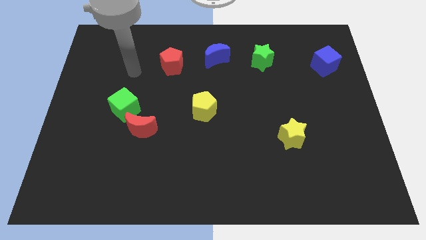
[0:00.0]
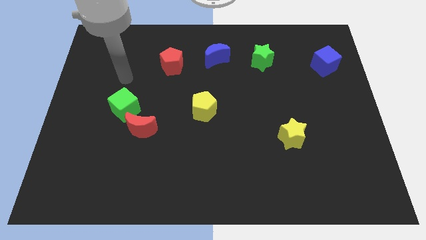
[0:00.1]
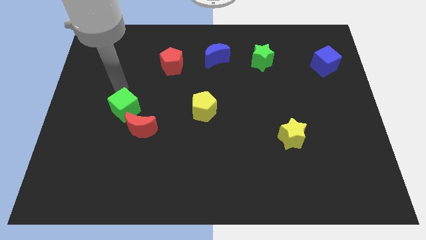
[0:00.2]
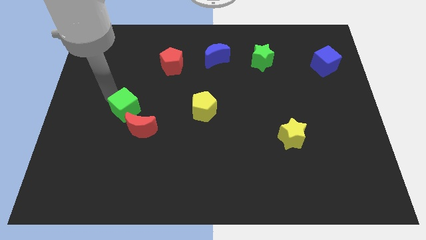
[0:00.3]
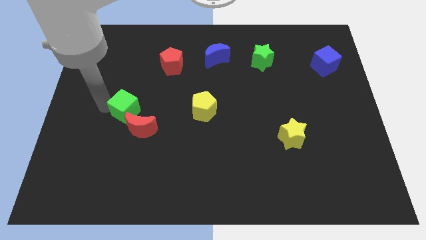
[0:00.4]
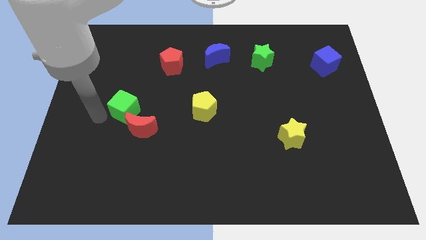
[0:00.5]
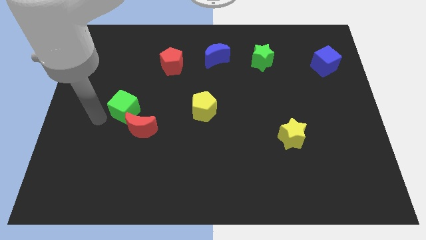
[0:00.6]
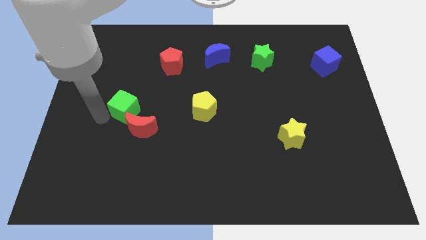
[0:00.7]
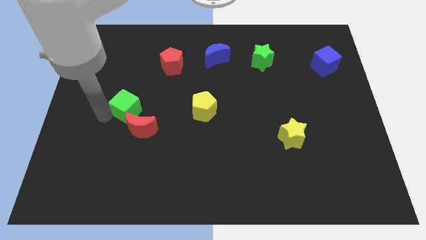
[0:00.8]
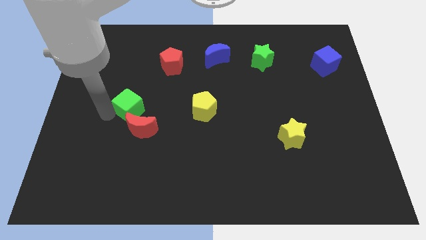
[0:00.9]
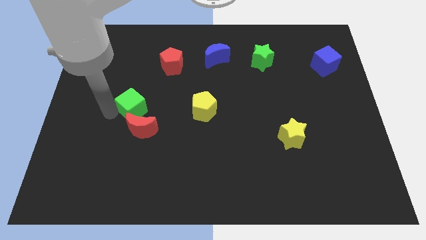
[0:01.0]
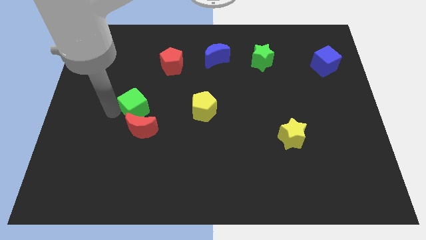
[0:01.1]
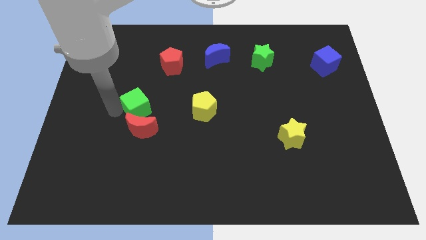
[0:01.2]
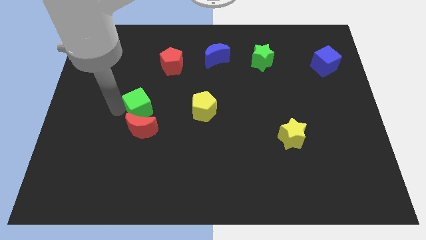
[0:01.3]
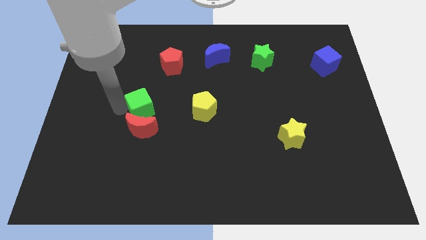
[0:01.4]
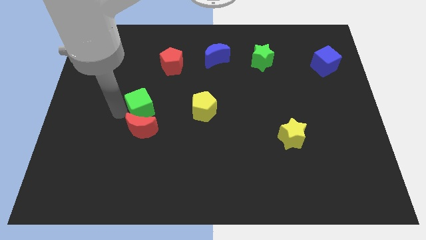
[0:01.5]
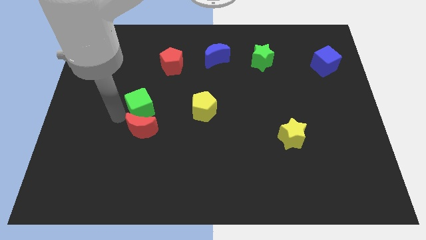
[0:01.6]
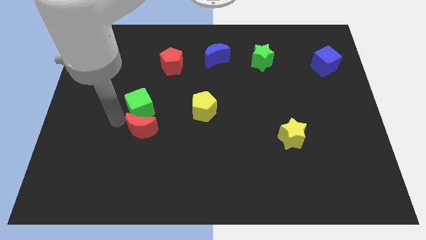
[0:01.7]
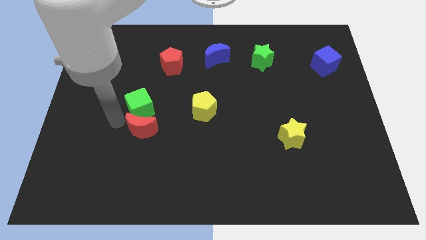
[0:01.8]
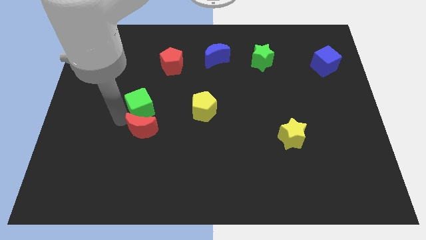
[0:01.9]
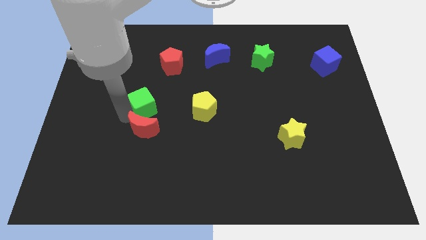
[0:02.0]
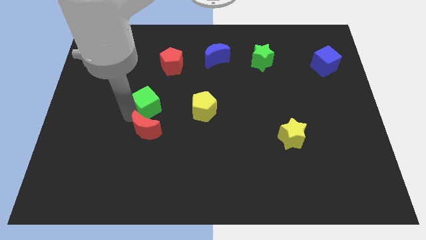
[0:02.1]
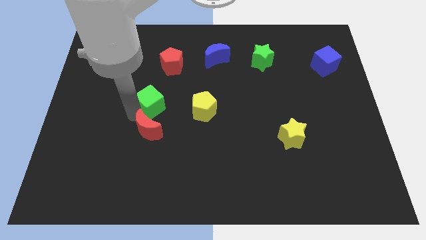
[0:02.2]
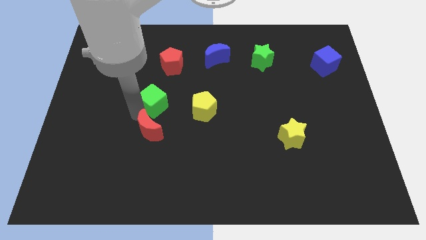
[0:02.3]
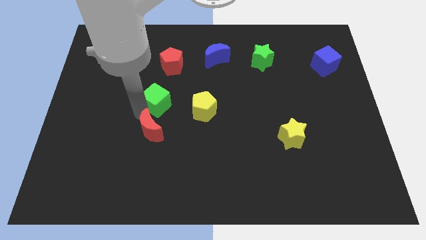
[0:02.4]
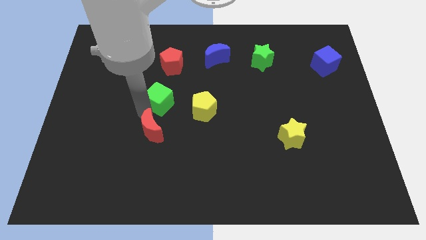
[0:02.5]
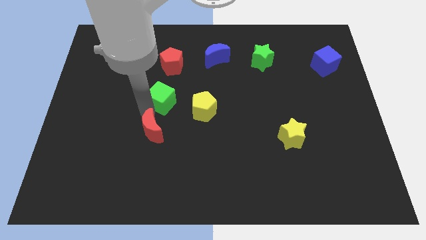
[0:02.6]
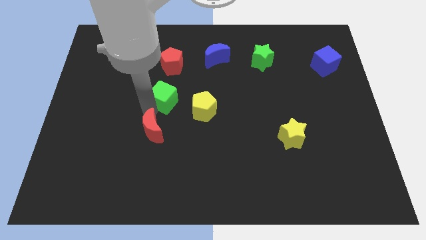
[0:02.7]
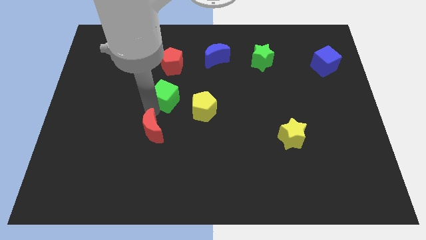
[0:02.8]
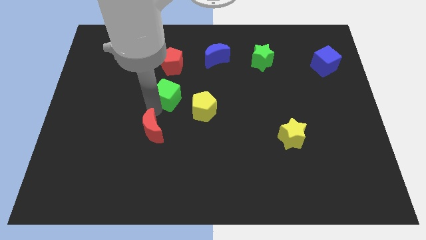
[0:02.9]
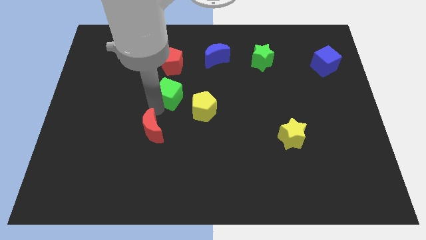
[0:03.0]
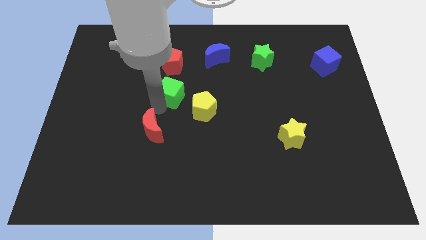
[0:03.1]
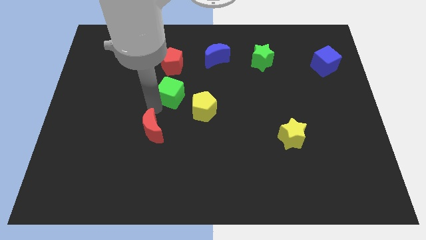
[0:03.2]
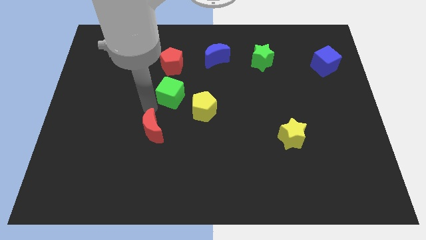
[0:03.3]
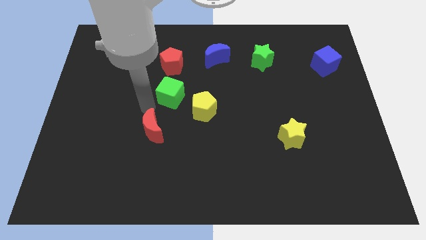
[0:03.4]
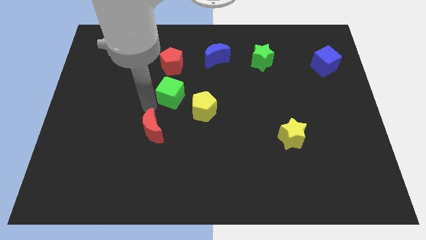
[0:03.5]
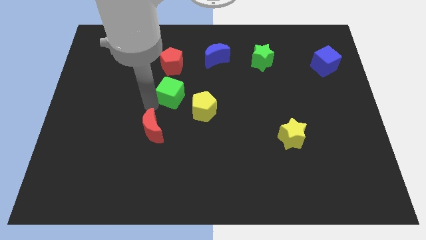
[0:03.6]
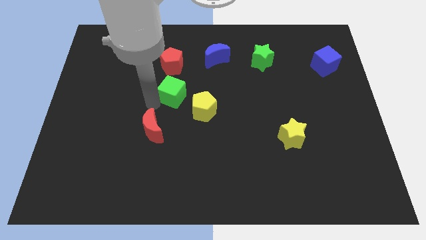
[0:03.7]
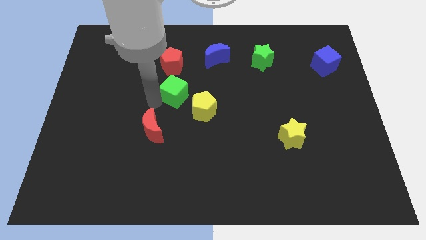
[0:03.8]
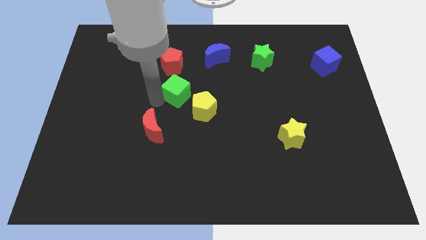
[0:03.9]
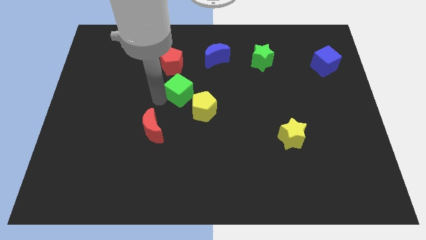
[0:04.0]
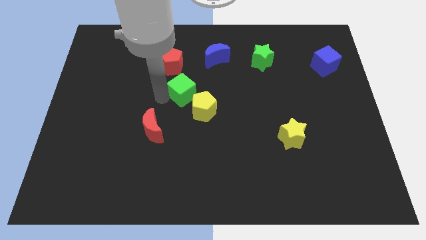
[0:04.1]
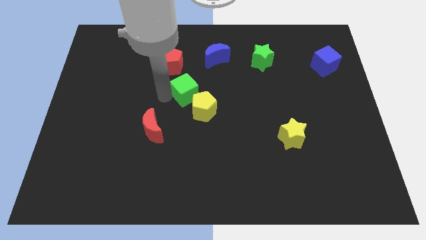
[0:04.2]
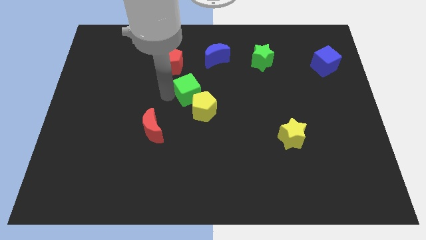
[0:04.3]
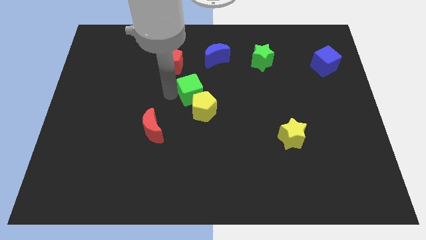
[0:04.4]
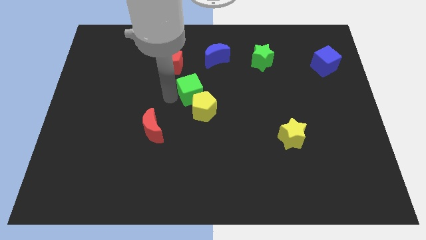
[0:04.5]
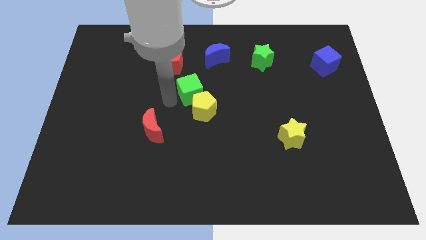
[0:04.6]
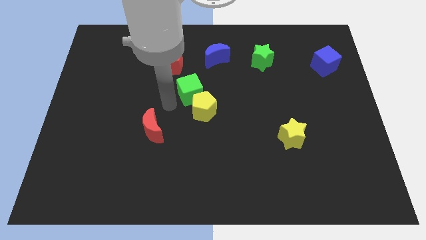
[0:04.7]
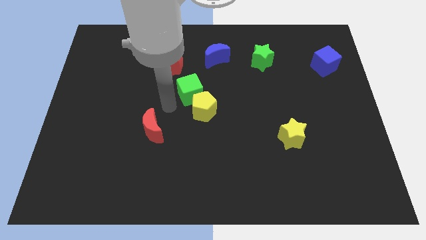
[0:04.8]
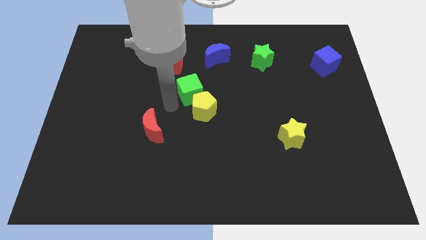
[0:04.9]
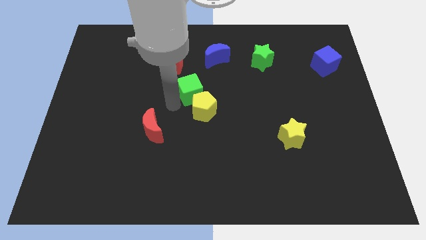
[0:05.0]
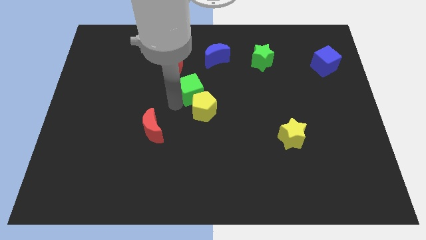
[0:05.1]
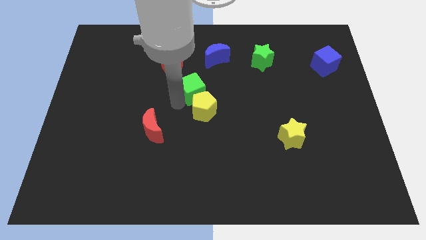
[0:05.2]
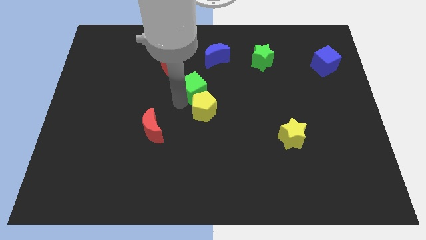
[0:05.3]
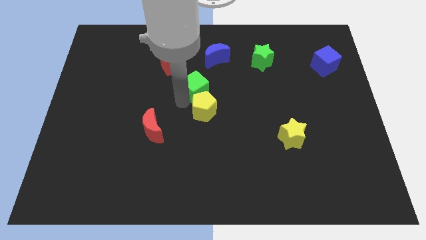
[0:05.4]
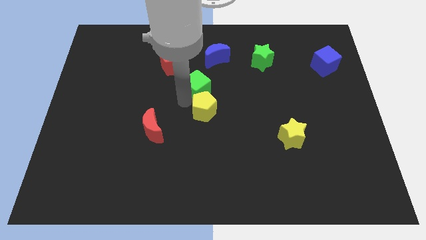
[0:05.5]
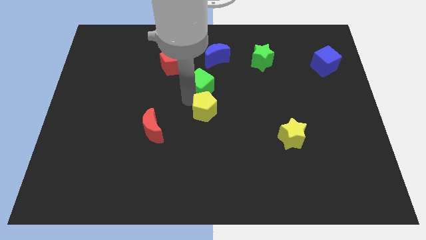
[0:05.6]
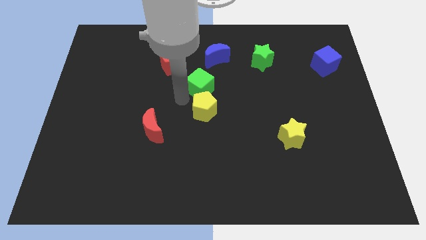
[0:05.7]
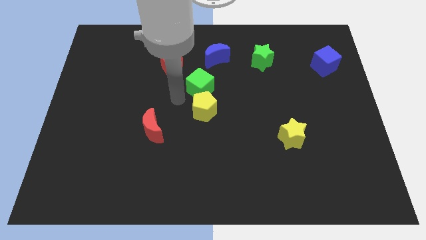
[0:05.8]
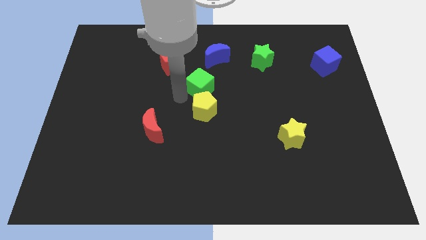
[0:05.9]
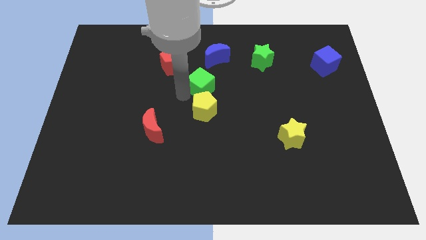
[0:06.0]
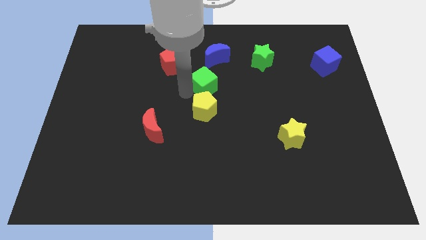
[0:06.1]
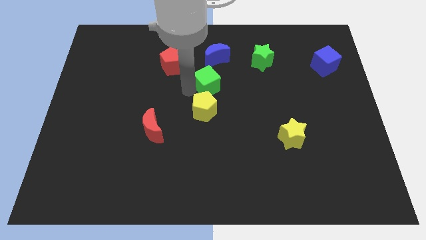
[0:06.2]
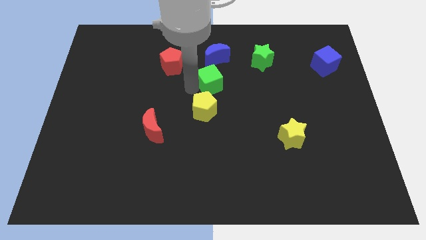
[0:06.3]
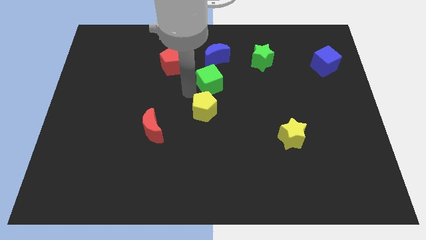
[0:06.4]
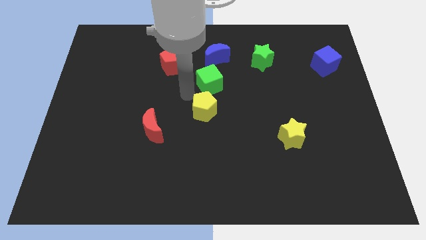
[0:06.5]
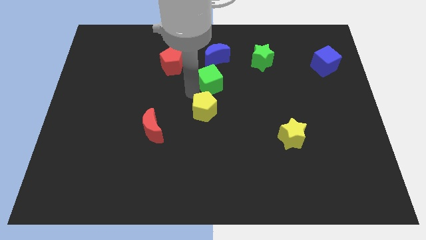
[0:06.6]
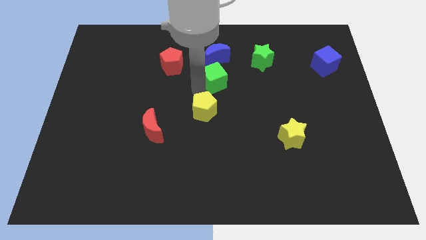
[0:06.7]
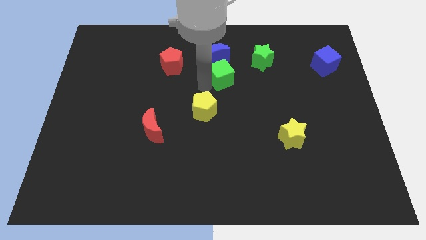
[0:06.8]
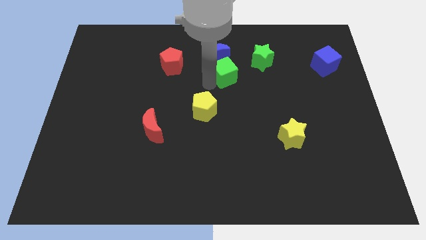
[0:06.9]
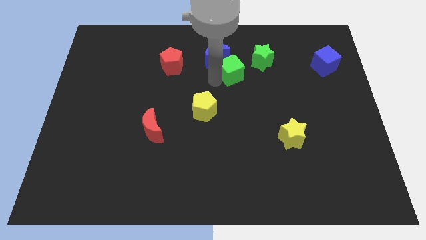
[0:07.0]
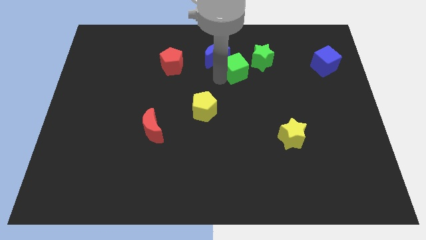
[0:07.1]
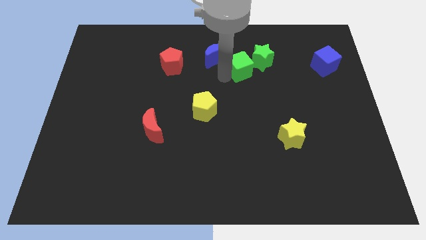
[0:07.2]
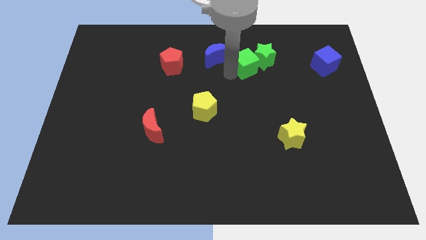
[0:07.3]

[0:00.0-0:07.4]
push the green cube next to the green star
